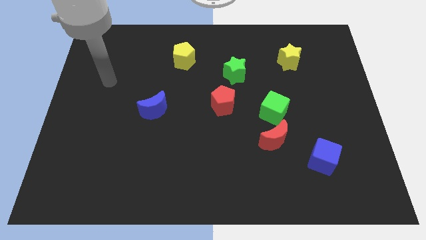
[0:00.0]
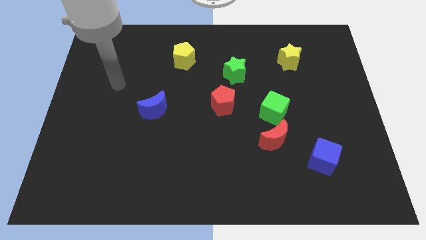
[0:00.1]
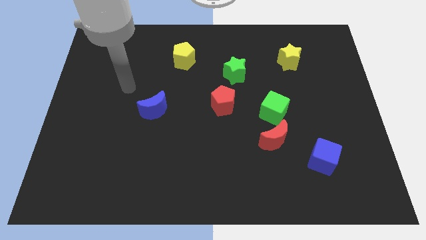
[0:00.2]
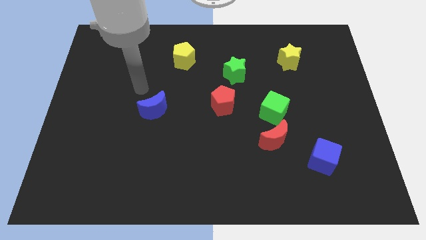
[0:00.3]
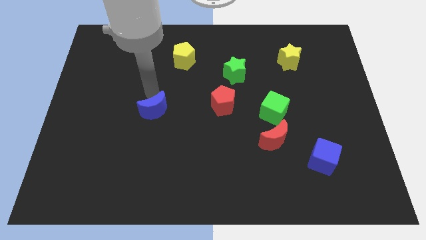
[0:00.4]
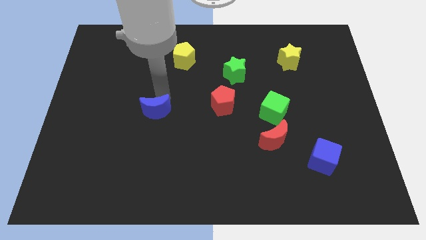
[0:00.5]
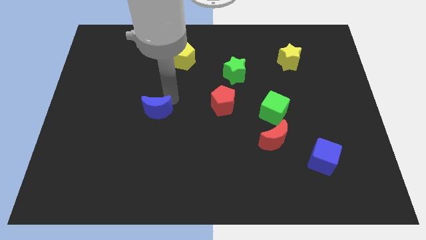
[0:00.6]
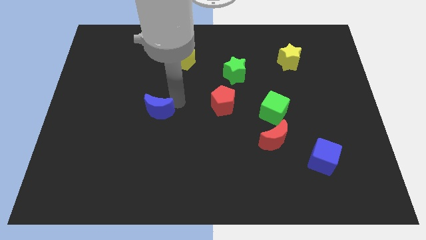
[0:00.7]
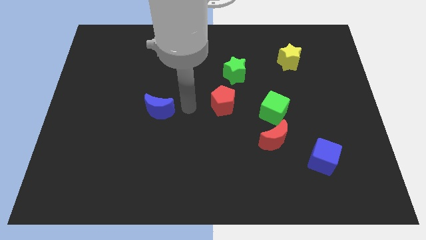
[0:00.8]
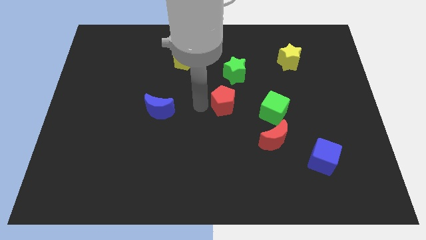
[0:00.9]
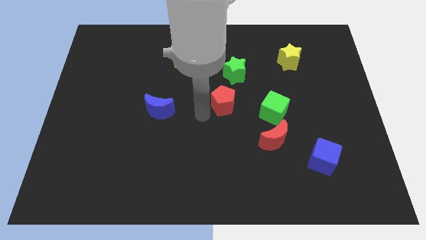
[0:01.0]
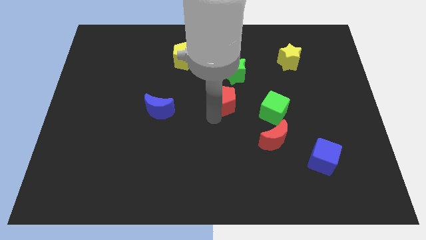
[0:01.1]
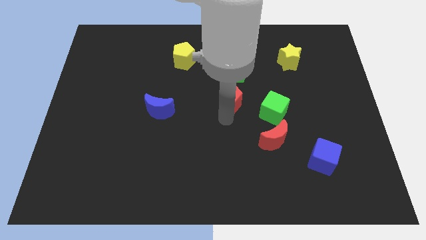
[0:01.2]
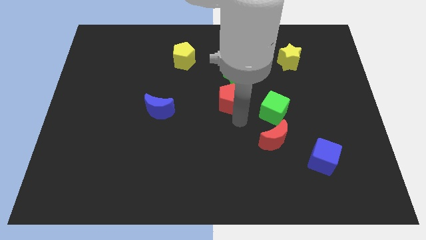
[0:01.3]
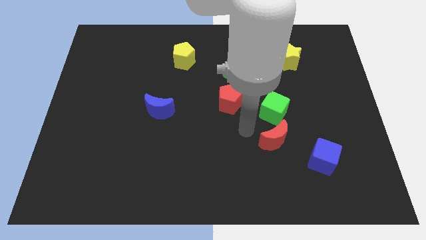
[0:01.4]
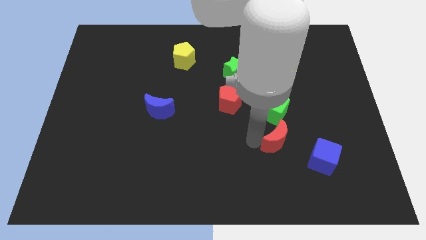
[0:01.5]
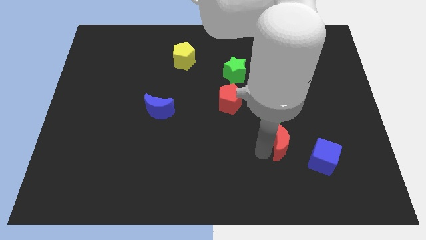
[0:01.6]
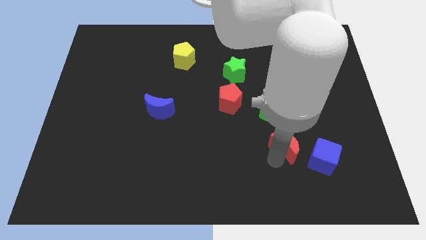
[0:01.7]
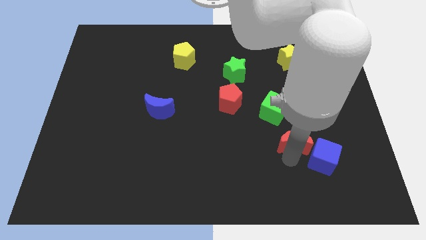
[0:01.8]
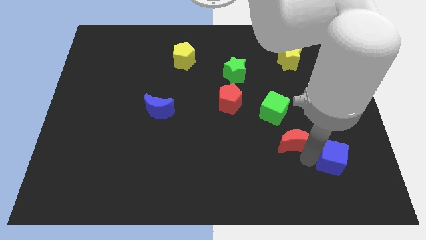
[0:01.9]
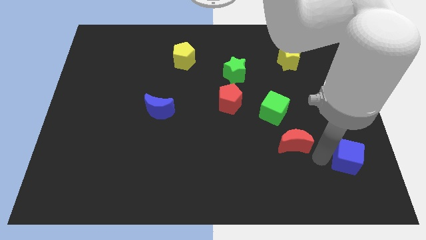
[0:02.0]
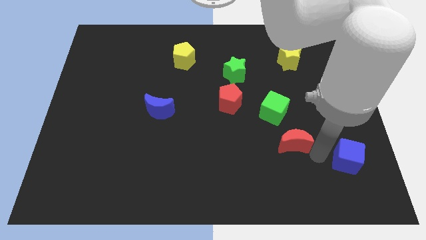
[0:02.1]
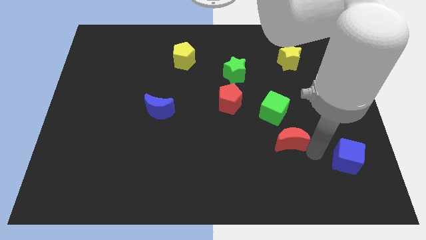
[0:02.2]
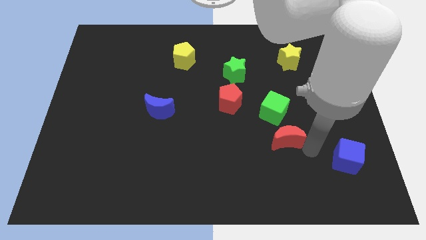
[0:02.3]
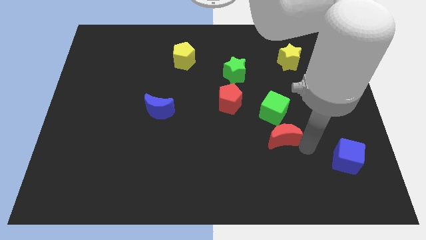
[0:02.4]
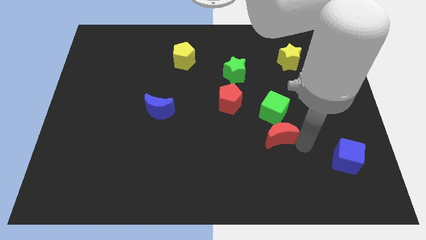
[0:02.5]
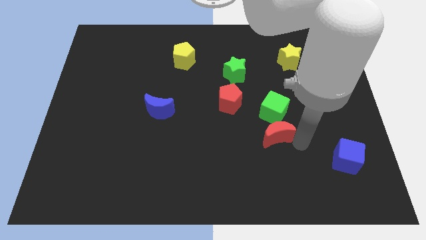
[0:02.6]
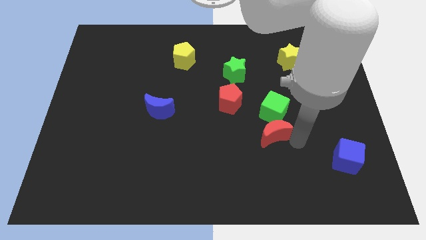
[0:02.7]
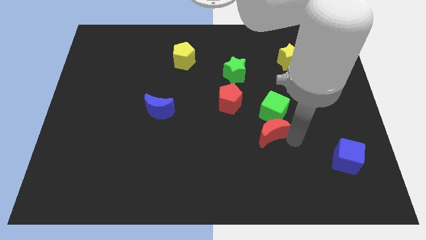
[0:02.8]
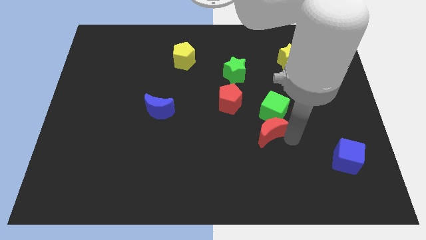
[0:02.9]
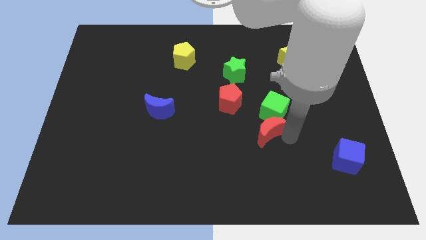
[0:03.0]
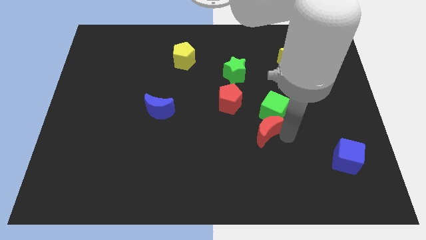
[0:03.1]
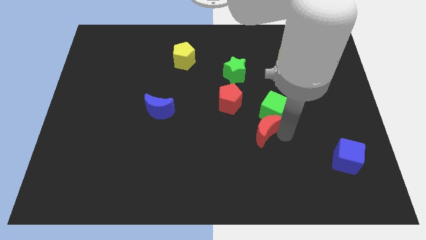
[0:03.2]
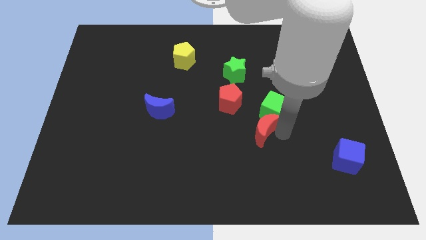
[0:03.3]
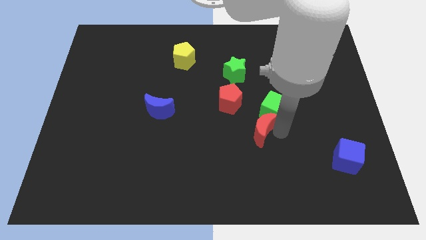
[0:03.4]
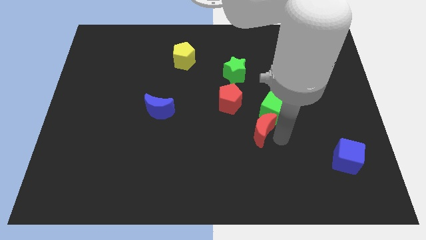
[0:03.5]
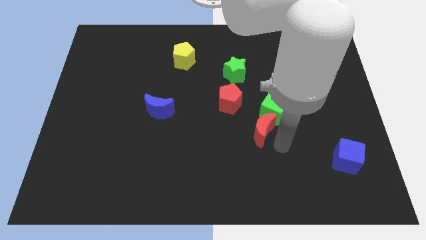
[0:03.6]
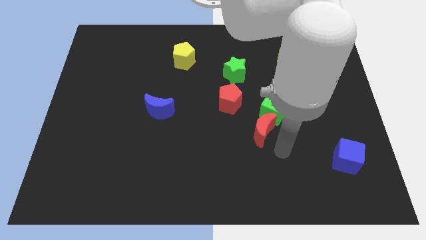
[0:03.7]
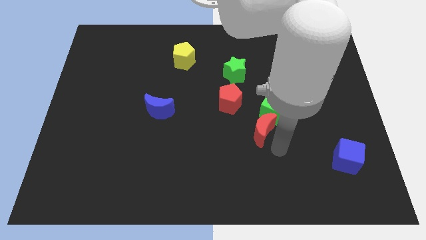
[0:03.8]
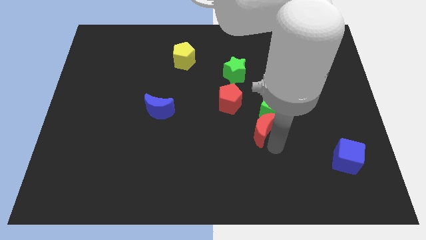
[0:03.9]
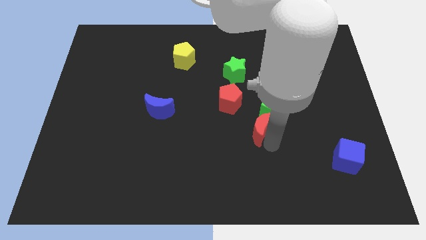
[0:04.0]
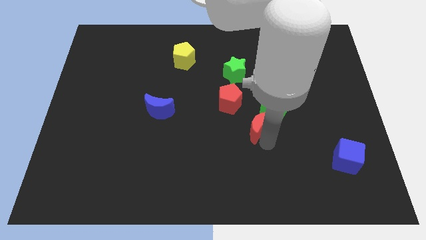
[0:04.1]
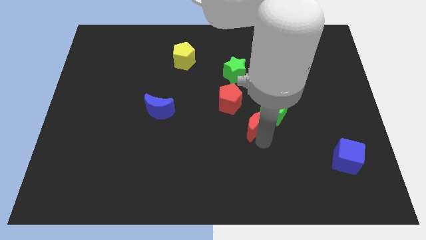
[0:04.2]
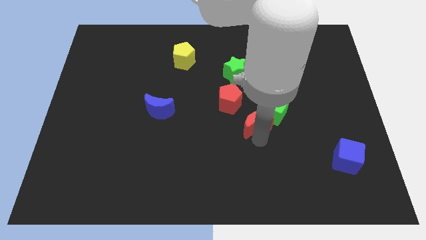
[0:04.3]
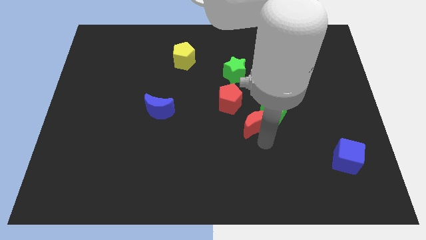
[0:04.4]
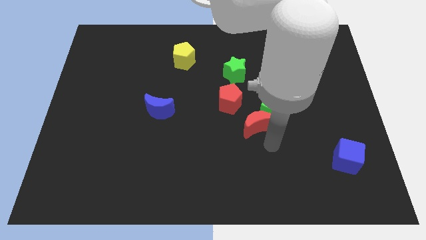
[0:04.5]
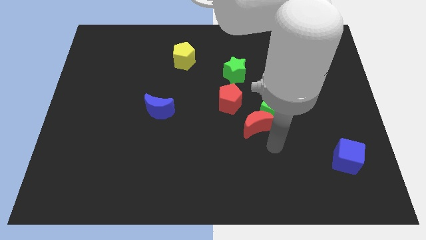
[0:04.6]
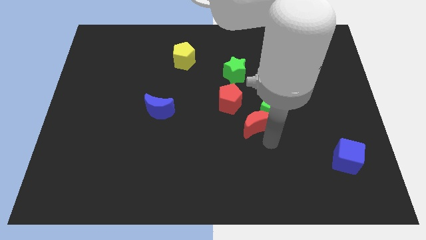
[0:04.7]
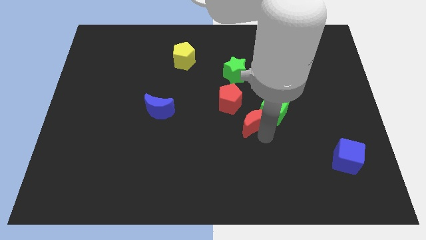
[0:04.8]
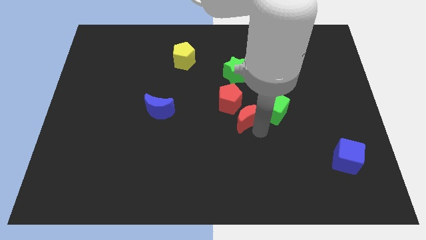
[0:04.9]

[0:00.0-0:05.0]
push the red moon to the bottom of the green star

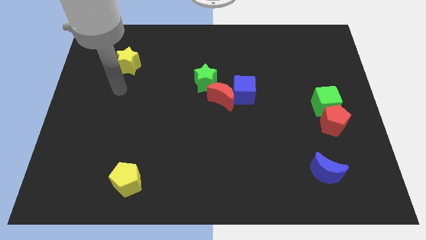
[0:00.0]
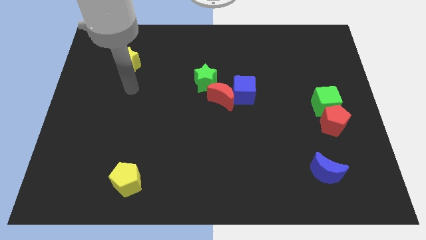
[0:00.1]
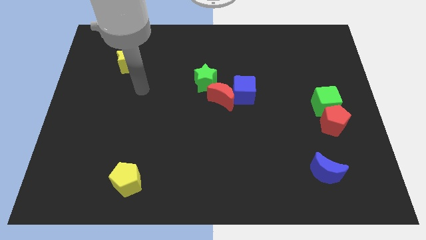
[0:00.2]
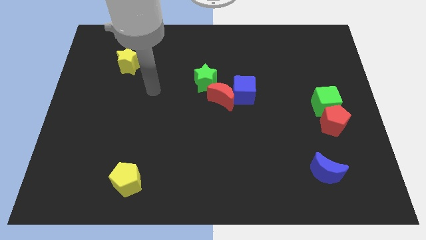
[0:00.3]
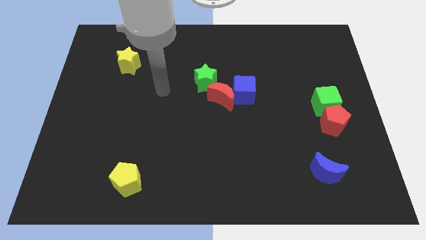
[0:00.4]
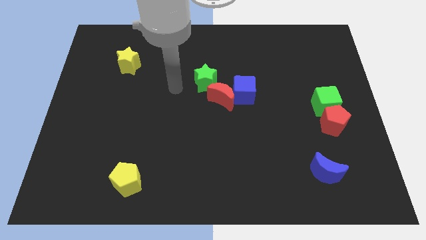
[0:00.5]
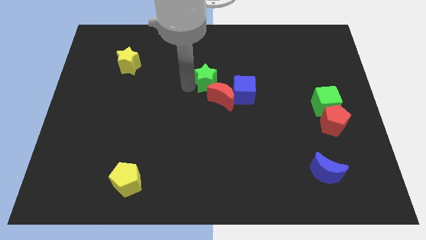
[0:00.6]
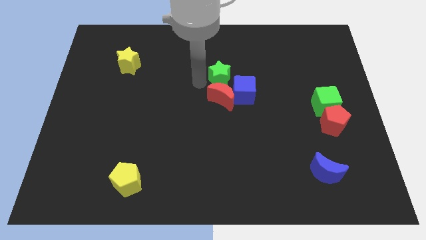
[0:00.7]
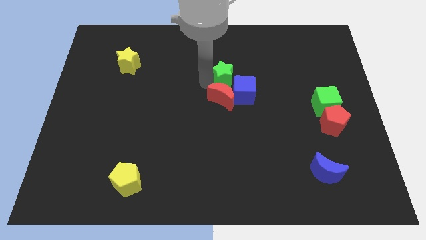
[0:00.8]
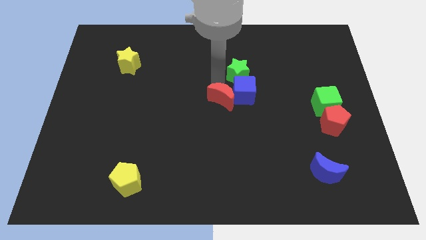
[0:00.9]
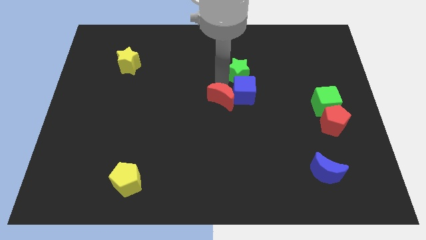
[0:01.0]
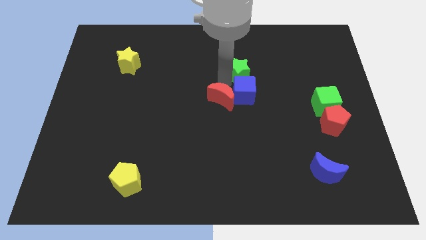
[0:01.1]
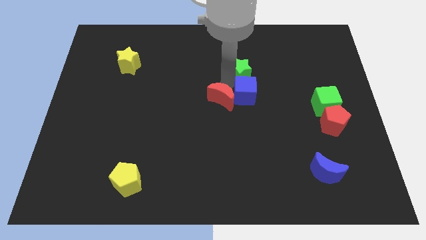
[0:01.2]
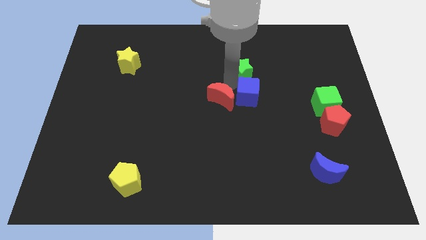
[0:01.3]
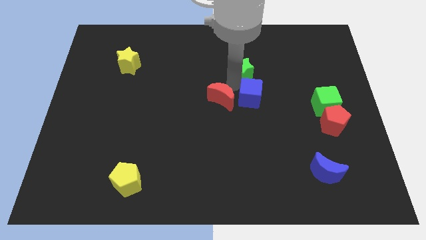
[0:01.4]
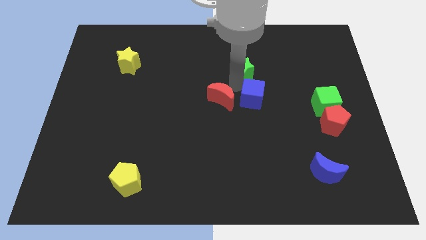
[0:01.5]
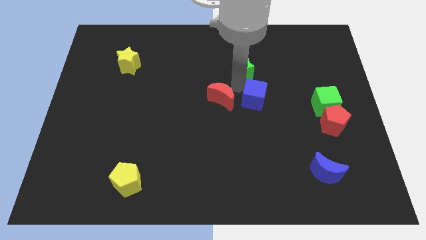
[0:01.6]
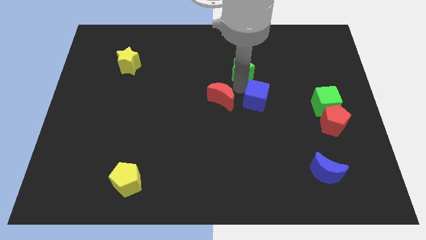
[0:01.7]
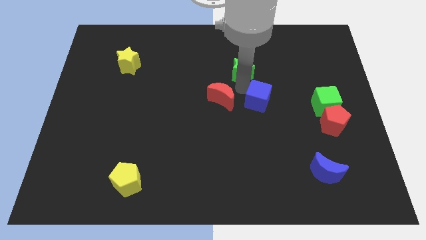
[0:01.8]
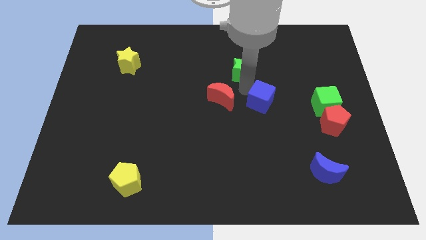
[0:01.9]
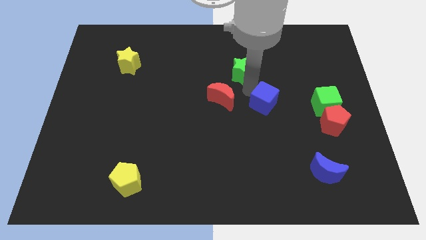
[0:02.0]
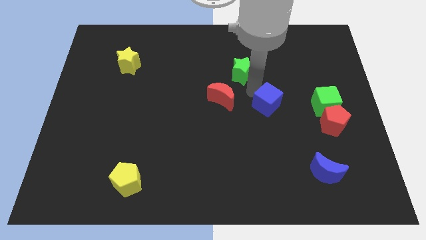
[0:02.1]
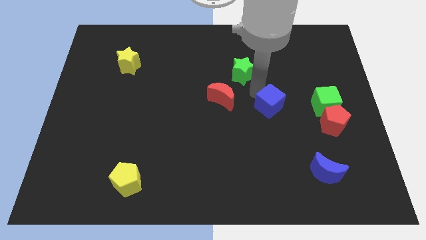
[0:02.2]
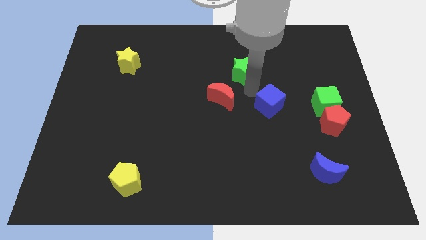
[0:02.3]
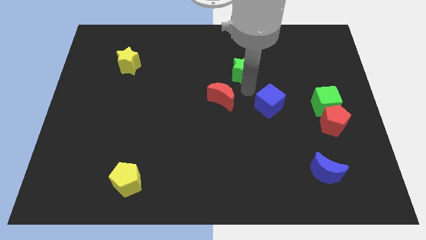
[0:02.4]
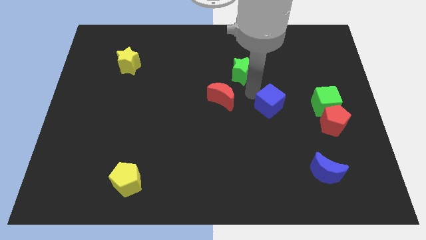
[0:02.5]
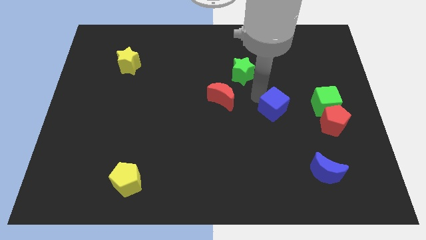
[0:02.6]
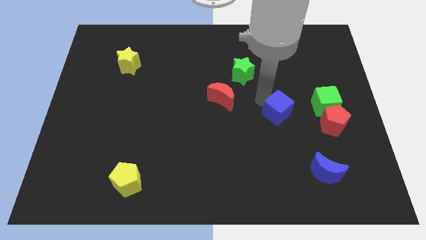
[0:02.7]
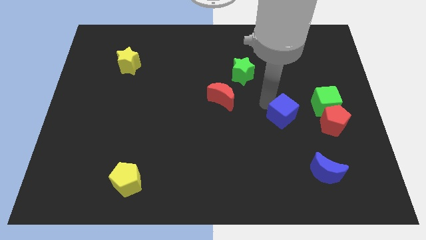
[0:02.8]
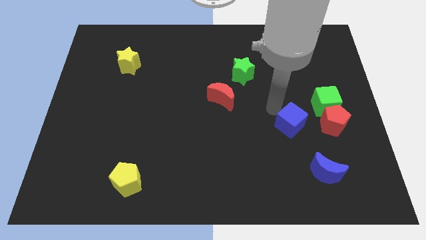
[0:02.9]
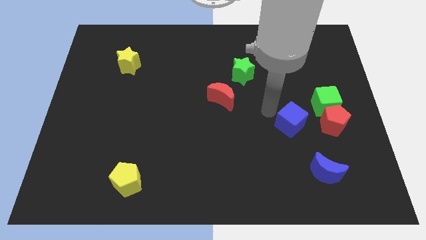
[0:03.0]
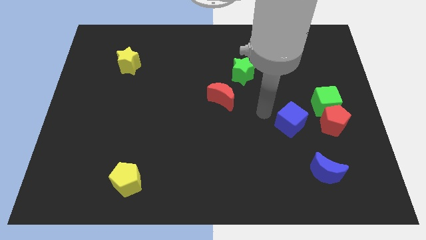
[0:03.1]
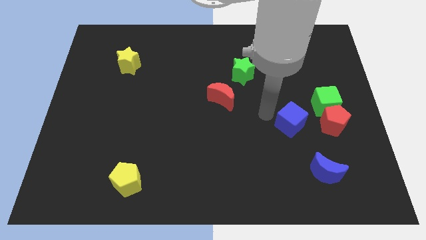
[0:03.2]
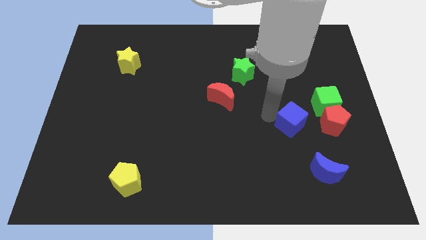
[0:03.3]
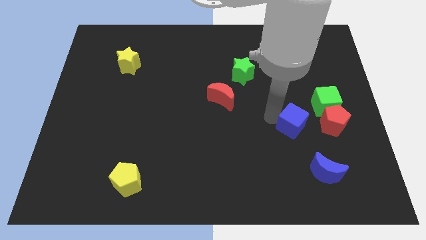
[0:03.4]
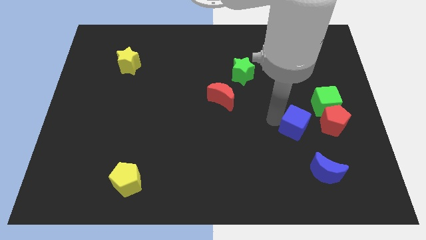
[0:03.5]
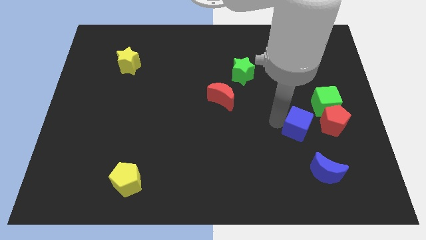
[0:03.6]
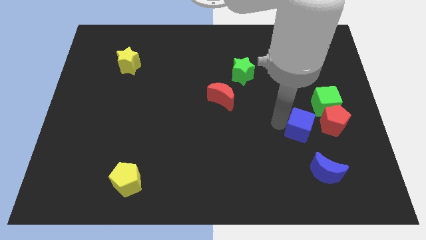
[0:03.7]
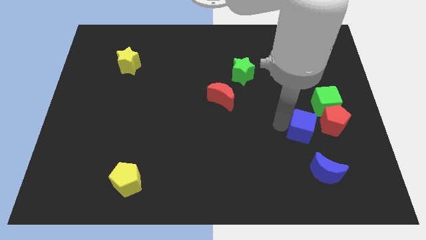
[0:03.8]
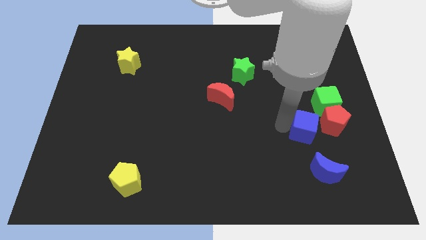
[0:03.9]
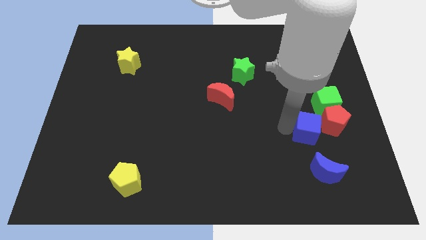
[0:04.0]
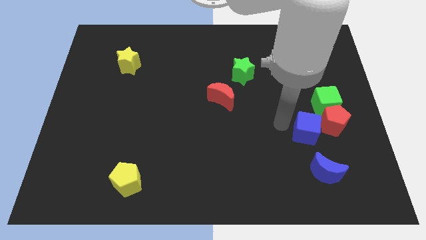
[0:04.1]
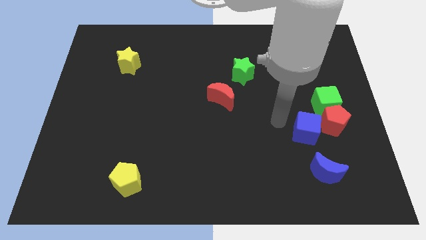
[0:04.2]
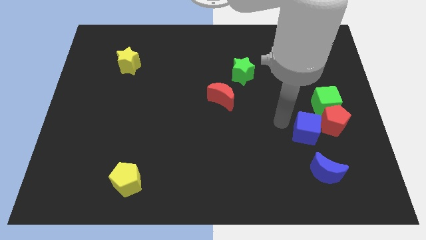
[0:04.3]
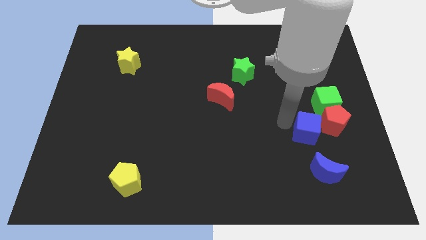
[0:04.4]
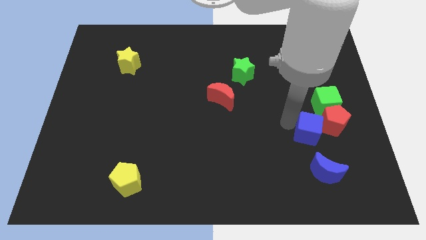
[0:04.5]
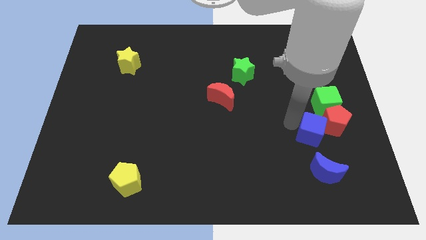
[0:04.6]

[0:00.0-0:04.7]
push the blue cube to the bottom side of the green cube
